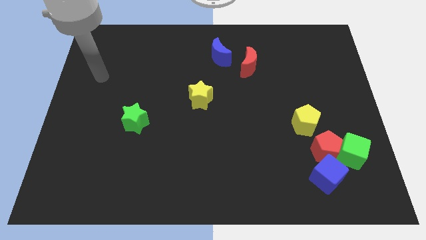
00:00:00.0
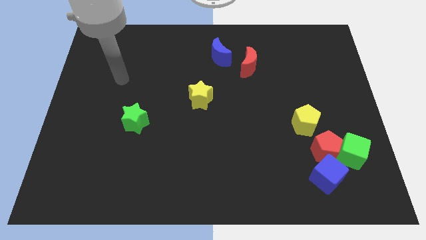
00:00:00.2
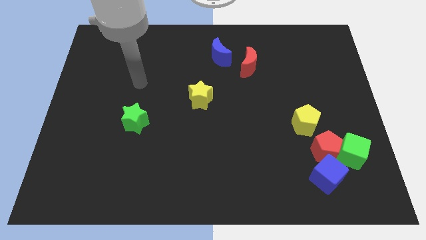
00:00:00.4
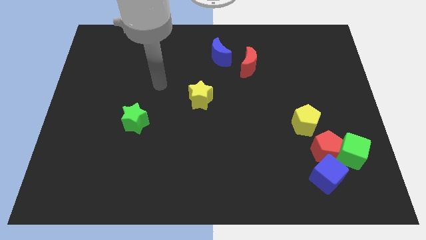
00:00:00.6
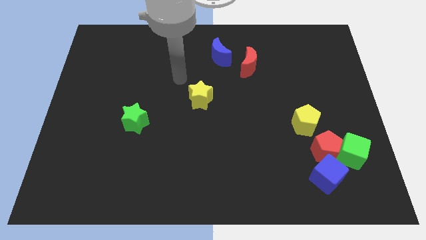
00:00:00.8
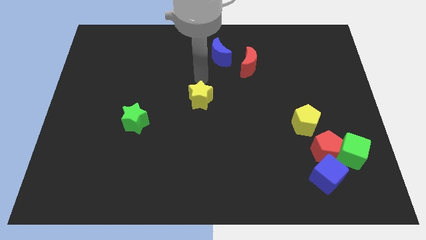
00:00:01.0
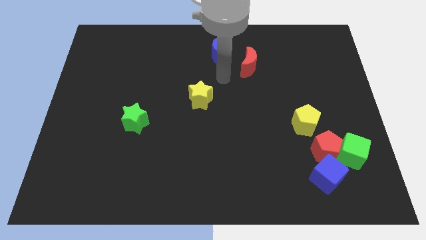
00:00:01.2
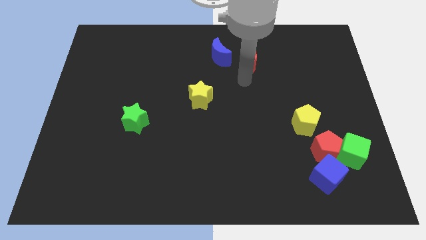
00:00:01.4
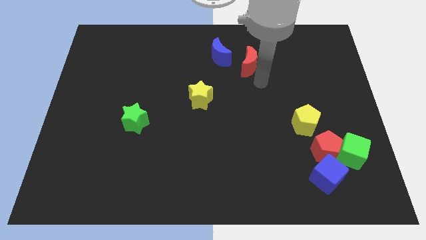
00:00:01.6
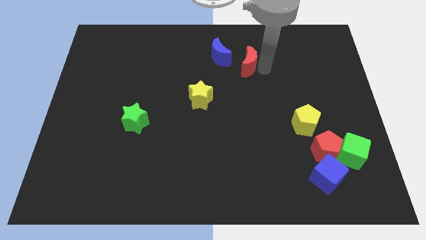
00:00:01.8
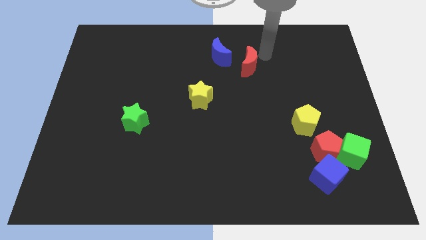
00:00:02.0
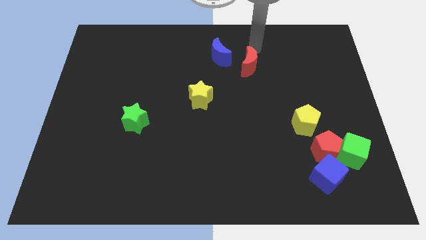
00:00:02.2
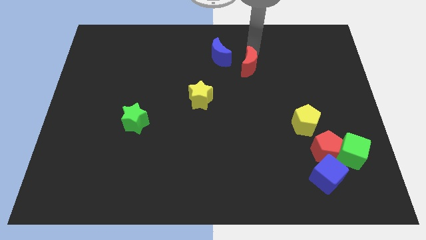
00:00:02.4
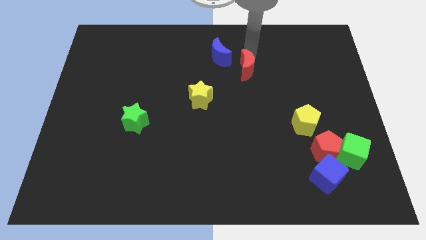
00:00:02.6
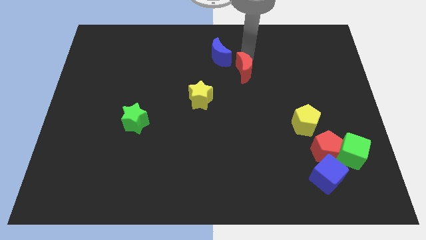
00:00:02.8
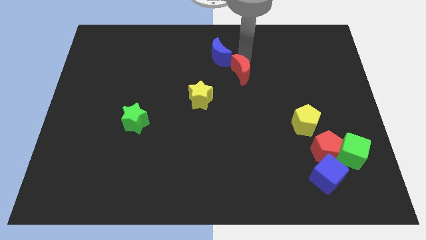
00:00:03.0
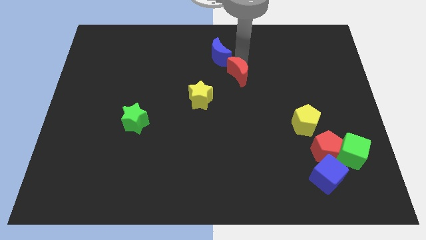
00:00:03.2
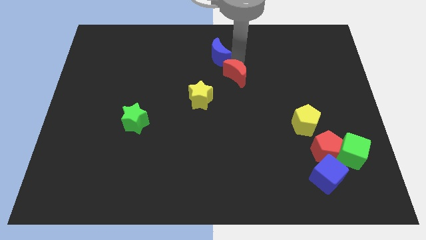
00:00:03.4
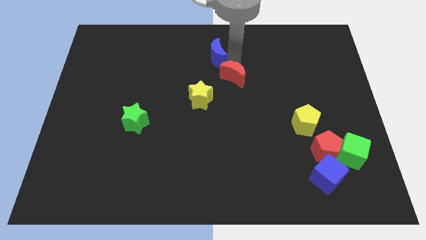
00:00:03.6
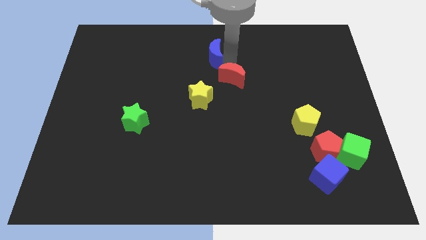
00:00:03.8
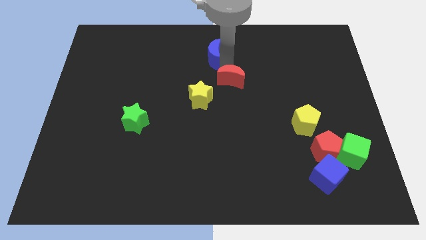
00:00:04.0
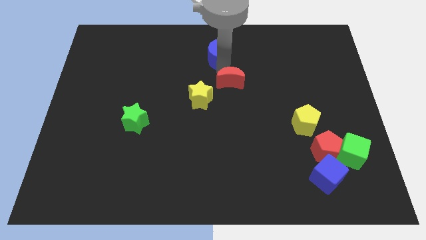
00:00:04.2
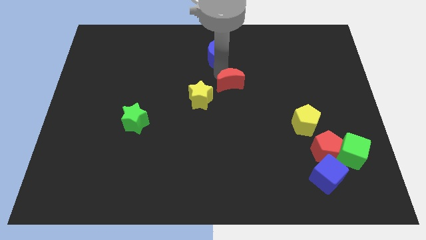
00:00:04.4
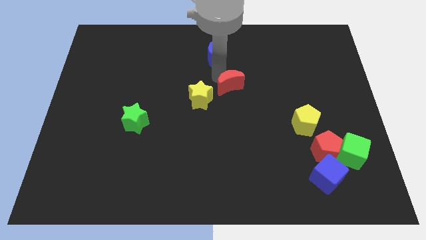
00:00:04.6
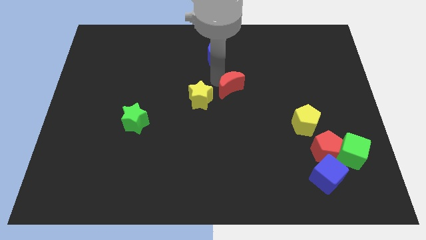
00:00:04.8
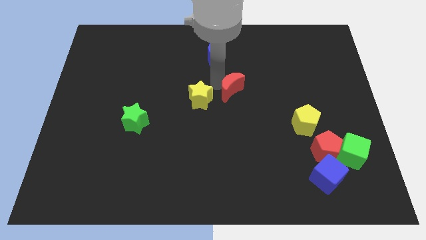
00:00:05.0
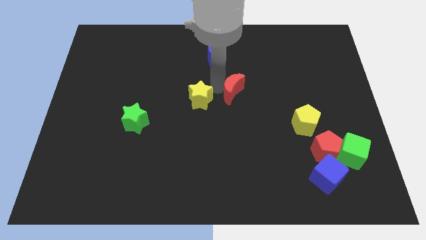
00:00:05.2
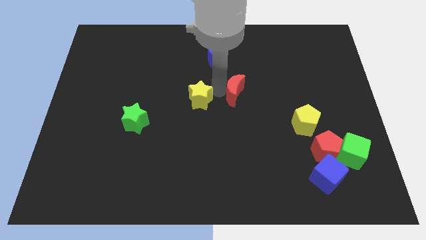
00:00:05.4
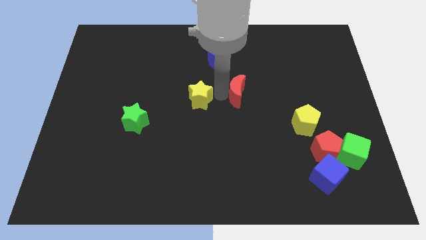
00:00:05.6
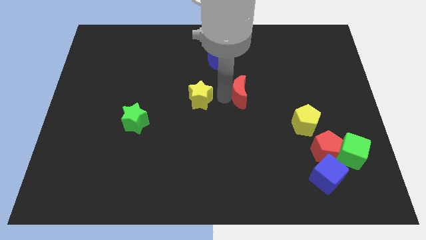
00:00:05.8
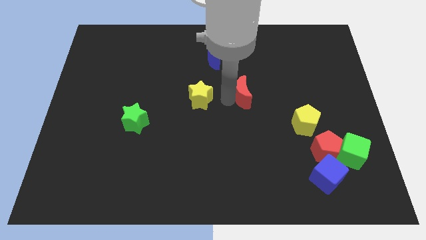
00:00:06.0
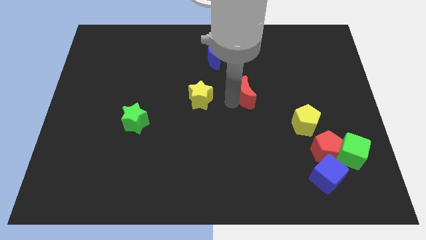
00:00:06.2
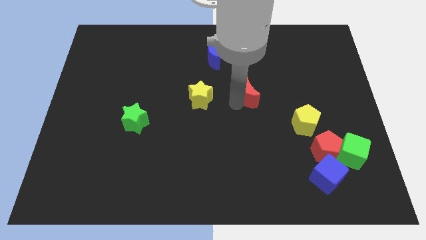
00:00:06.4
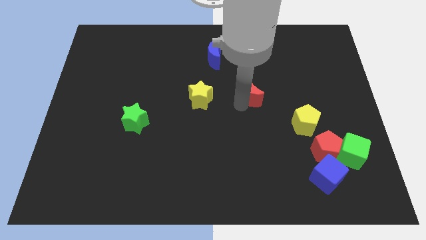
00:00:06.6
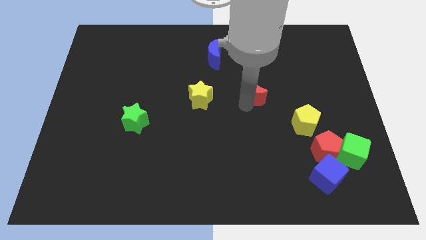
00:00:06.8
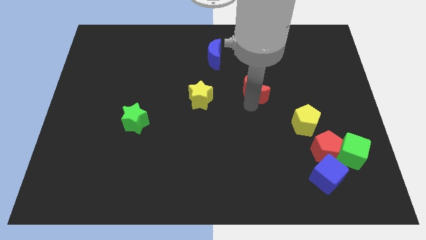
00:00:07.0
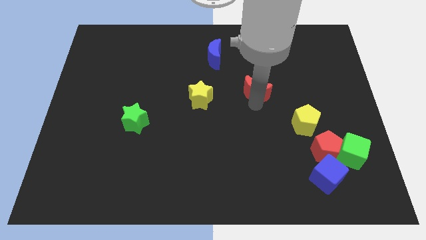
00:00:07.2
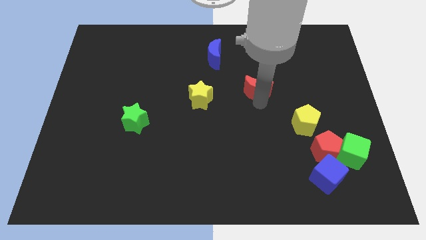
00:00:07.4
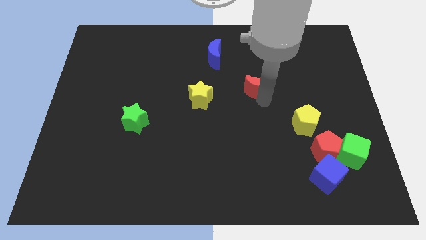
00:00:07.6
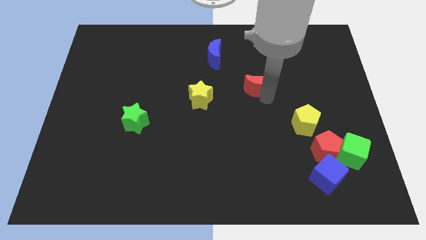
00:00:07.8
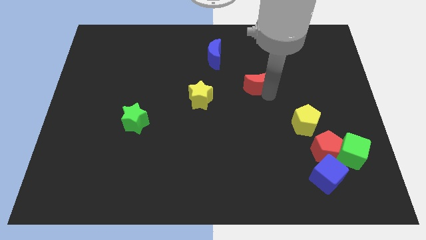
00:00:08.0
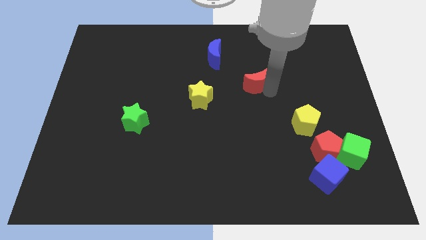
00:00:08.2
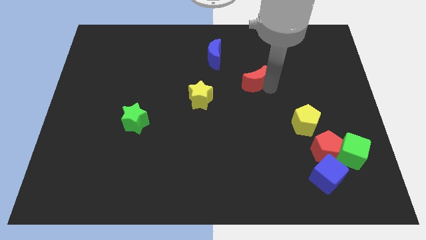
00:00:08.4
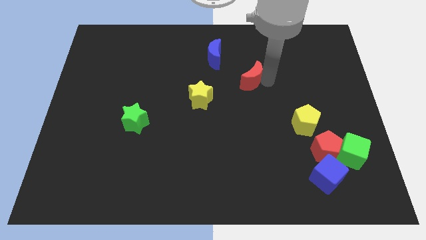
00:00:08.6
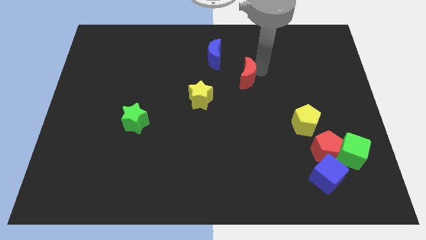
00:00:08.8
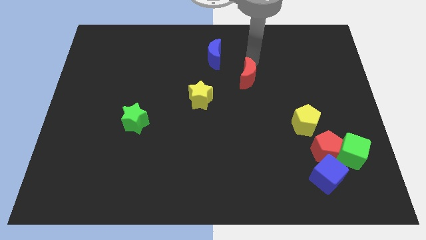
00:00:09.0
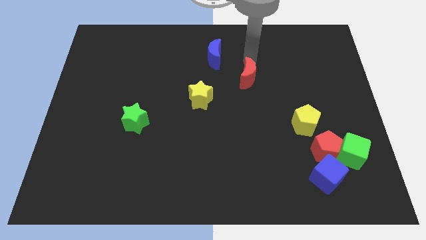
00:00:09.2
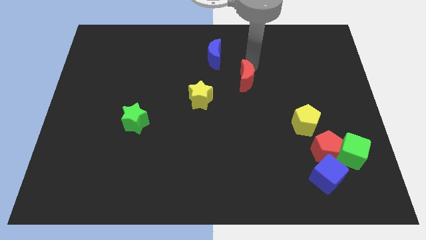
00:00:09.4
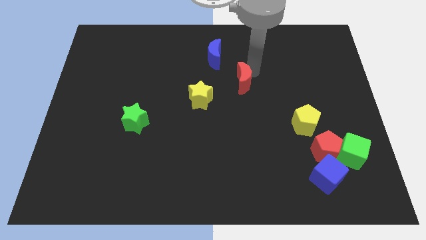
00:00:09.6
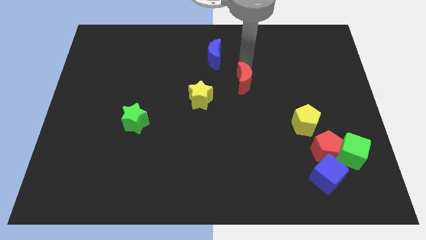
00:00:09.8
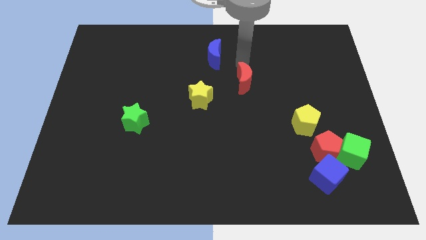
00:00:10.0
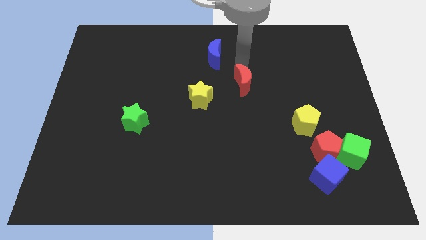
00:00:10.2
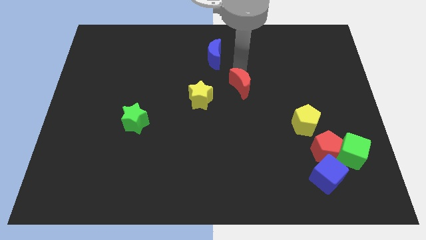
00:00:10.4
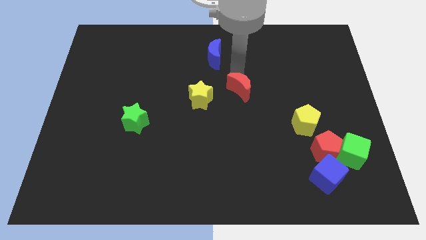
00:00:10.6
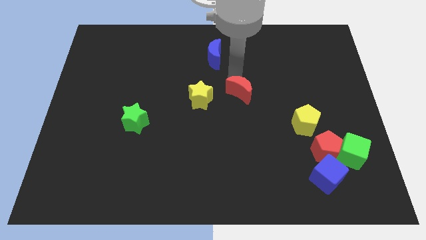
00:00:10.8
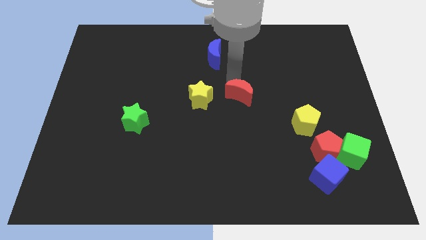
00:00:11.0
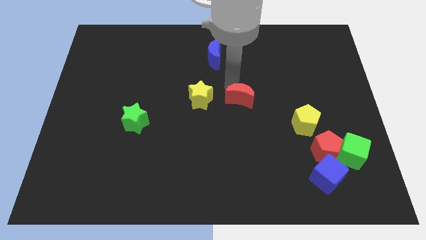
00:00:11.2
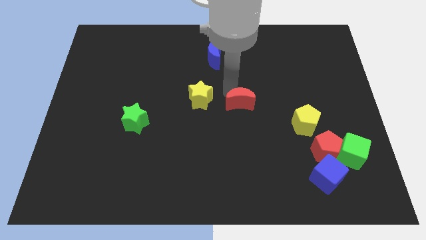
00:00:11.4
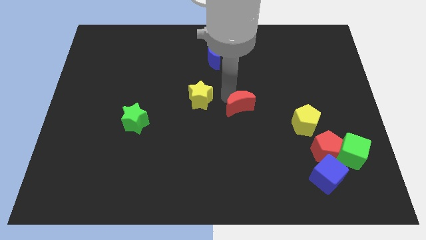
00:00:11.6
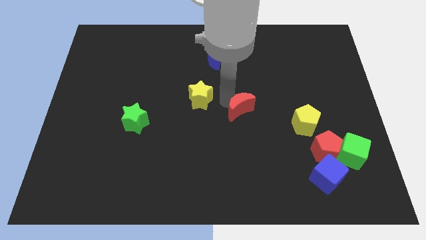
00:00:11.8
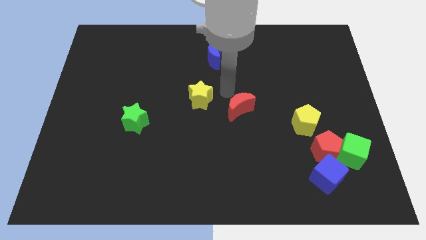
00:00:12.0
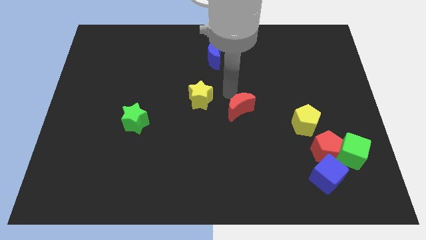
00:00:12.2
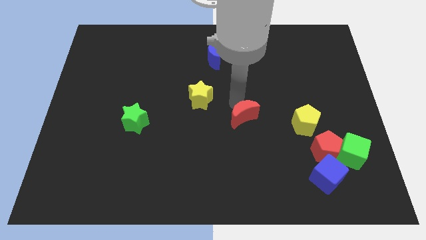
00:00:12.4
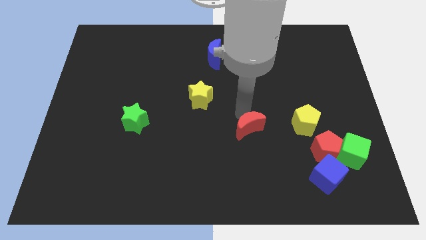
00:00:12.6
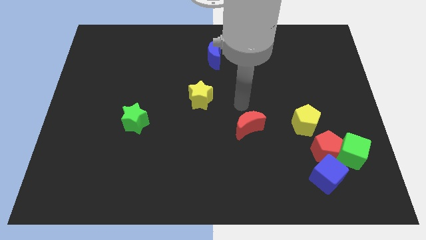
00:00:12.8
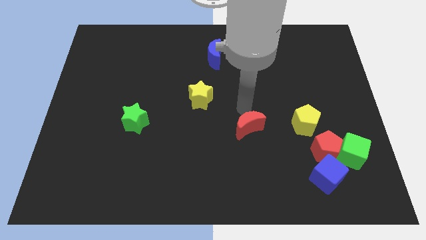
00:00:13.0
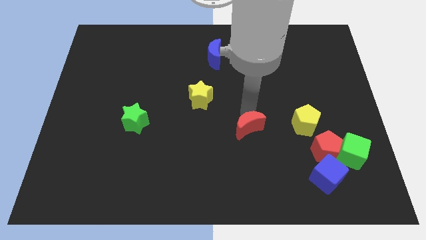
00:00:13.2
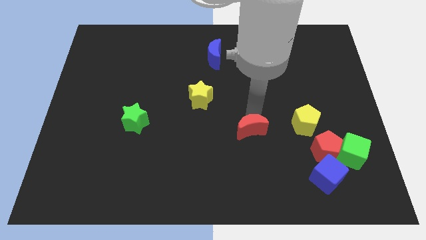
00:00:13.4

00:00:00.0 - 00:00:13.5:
move the red moon down

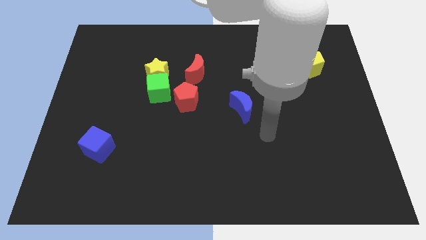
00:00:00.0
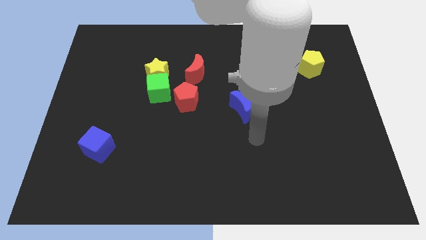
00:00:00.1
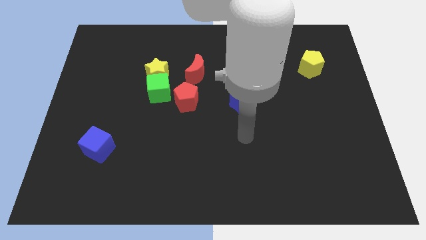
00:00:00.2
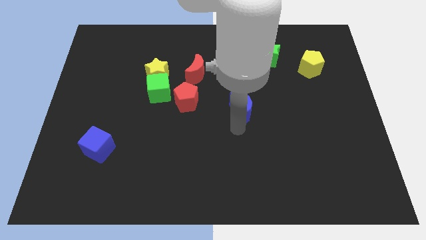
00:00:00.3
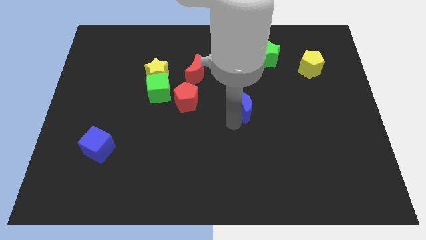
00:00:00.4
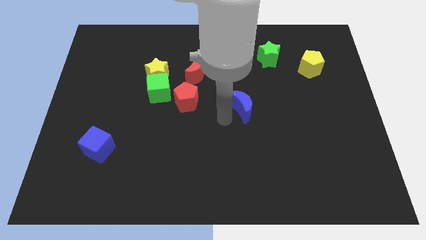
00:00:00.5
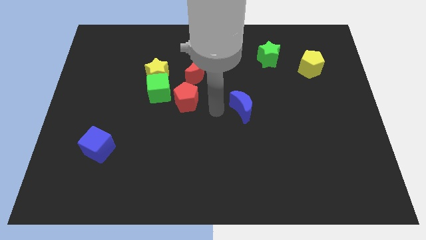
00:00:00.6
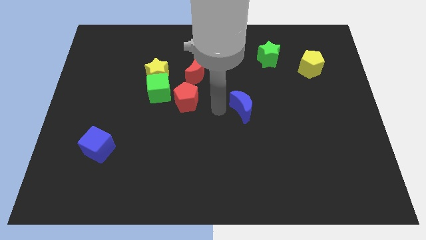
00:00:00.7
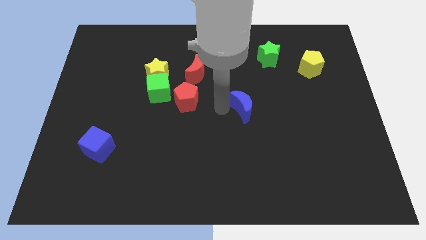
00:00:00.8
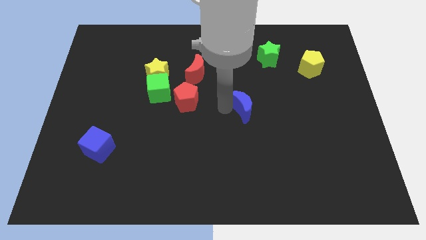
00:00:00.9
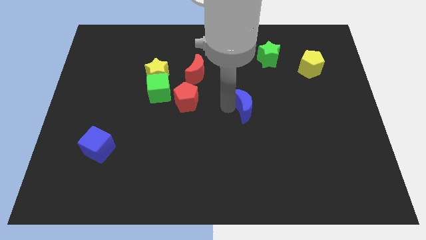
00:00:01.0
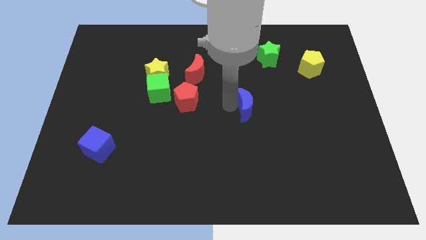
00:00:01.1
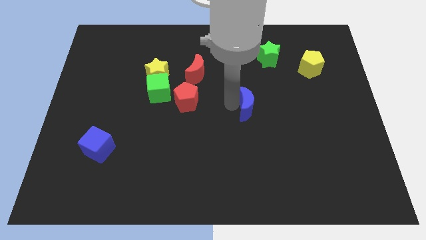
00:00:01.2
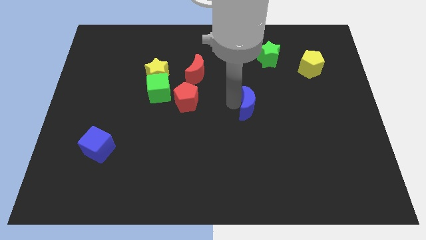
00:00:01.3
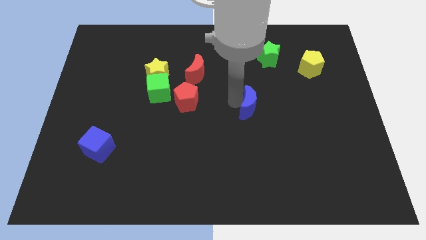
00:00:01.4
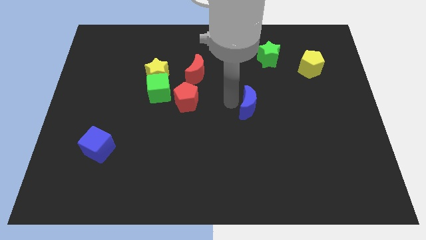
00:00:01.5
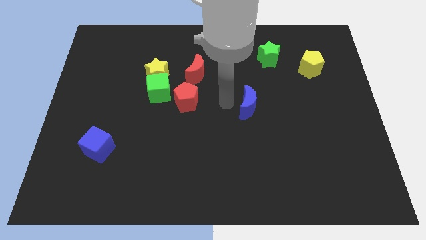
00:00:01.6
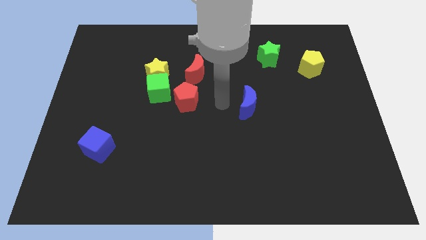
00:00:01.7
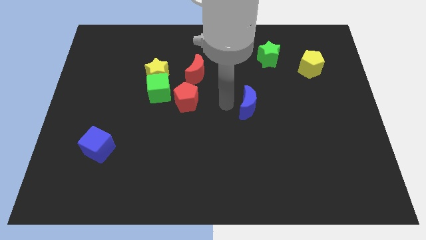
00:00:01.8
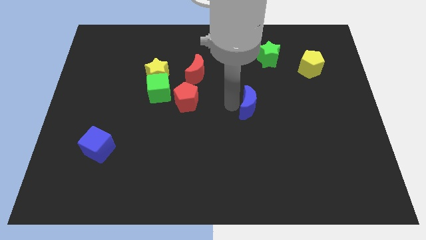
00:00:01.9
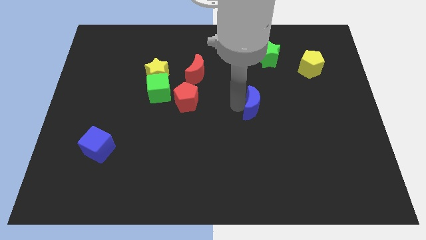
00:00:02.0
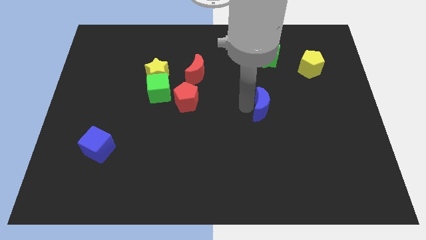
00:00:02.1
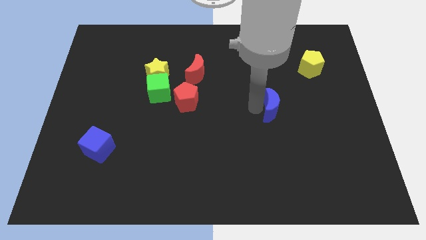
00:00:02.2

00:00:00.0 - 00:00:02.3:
push the blue moon right a little bit
